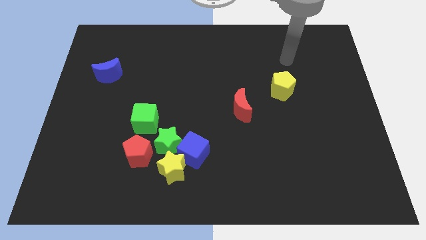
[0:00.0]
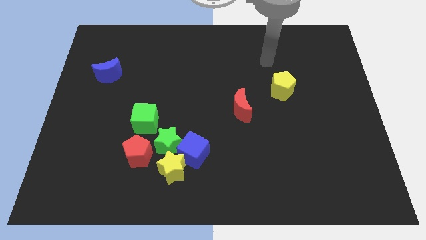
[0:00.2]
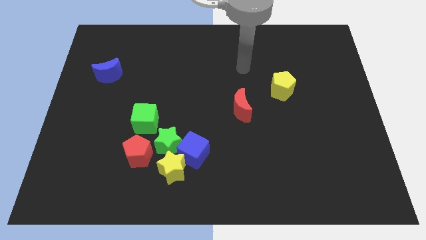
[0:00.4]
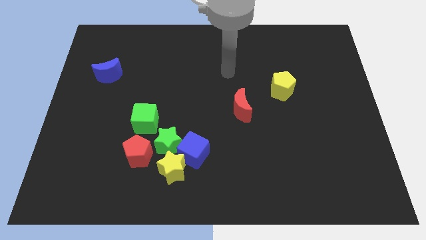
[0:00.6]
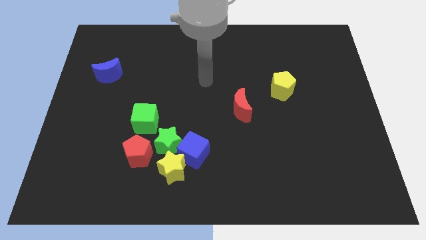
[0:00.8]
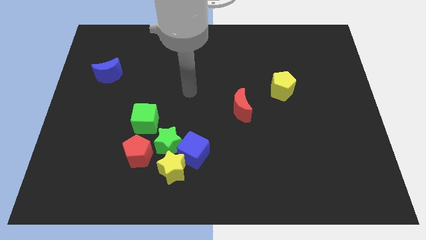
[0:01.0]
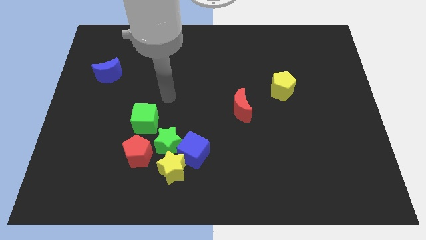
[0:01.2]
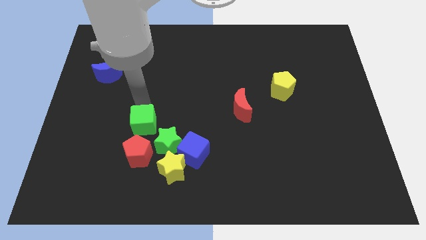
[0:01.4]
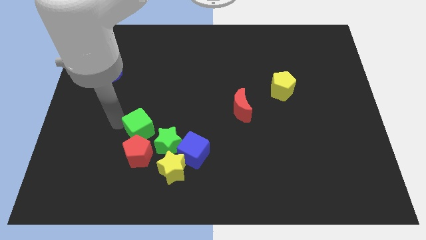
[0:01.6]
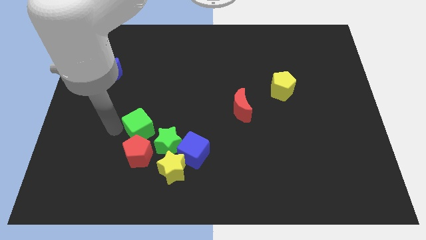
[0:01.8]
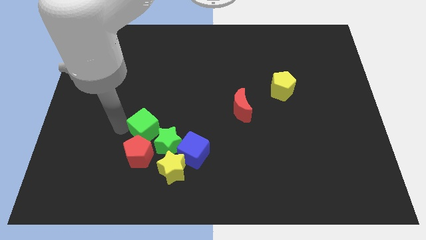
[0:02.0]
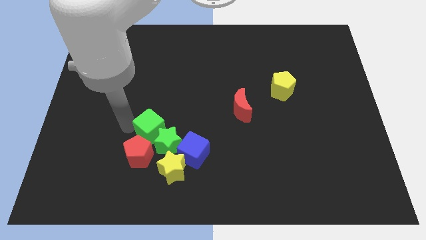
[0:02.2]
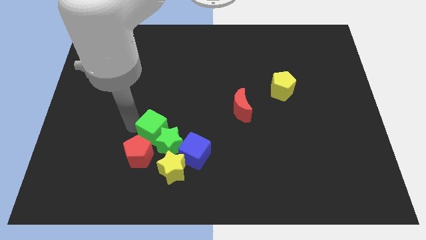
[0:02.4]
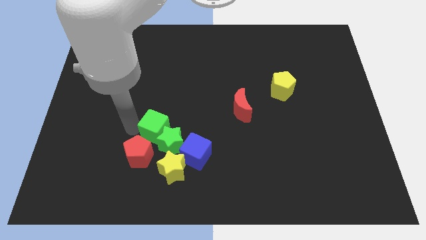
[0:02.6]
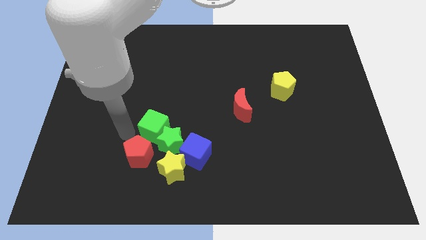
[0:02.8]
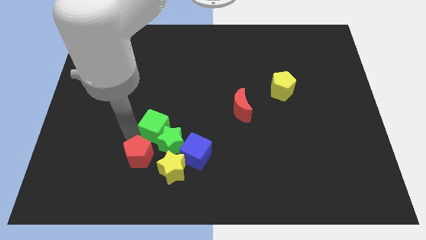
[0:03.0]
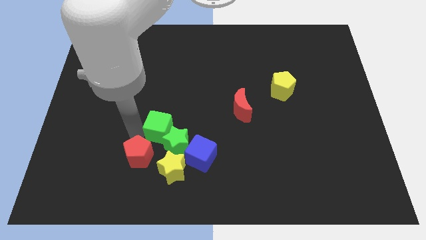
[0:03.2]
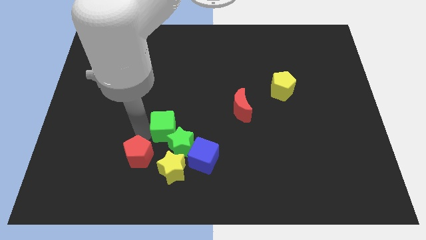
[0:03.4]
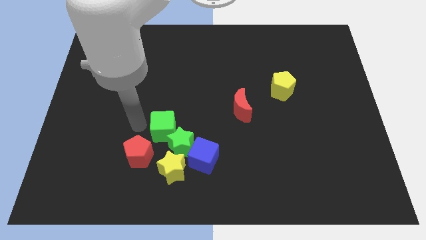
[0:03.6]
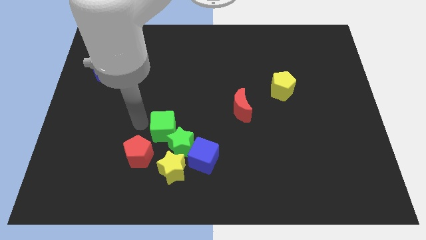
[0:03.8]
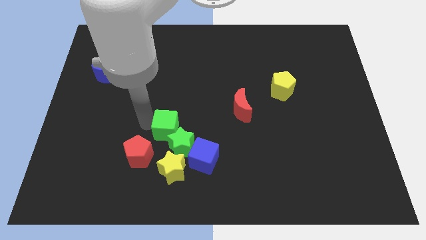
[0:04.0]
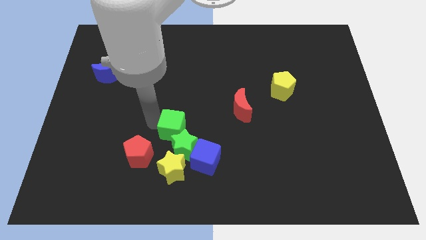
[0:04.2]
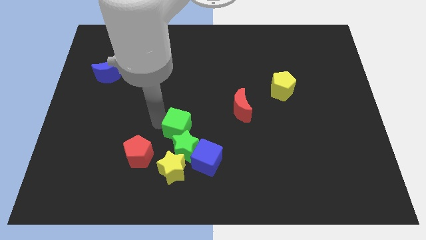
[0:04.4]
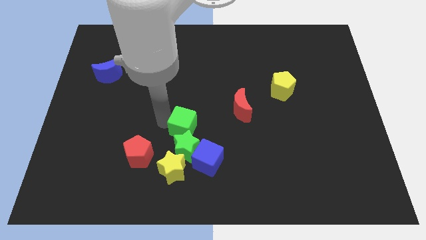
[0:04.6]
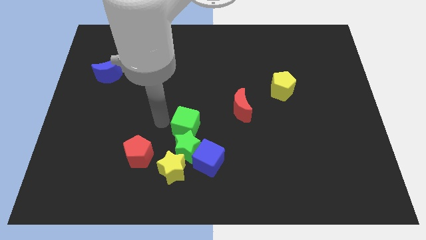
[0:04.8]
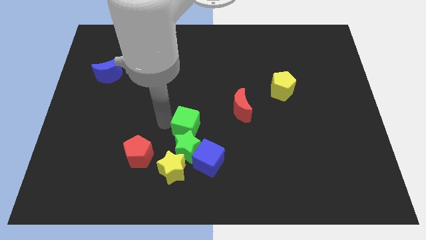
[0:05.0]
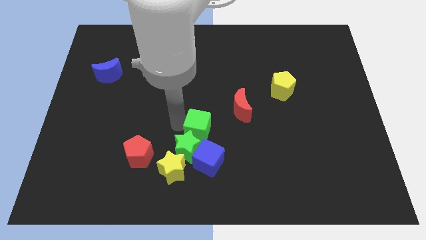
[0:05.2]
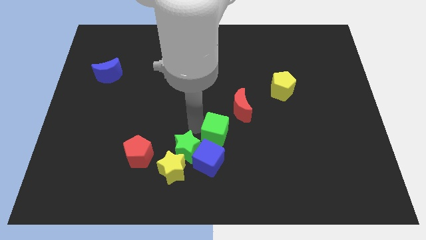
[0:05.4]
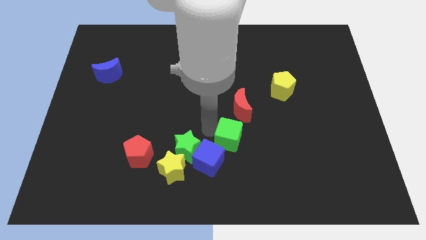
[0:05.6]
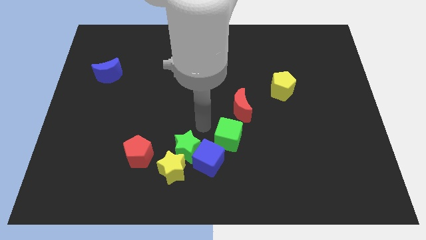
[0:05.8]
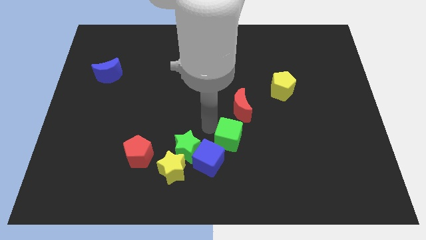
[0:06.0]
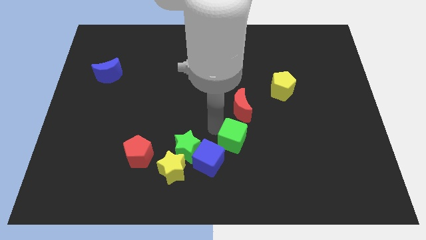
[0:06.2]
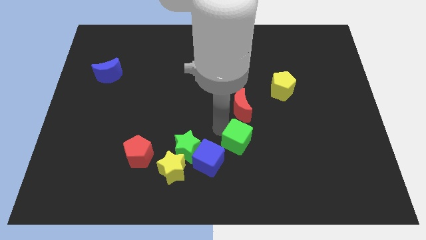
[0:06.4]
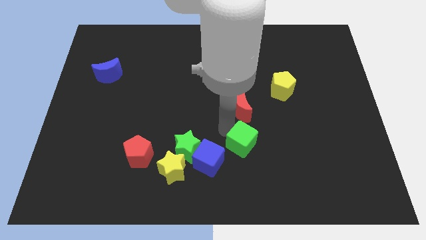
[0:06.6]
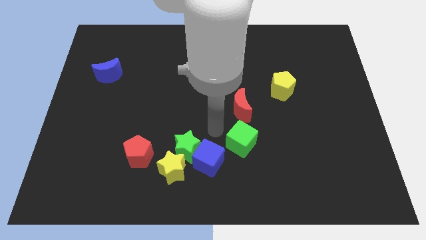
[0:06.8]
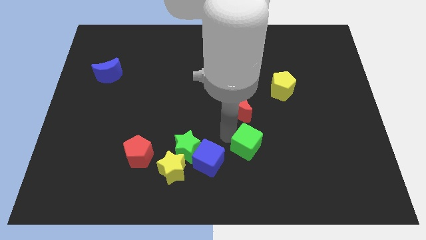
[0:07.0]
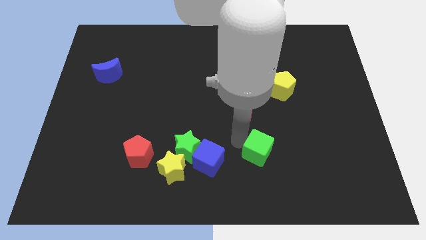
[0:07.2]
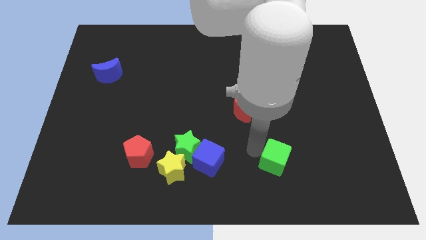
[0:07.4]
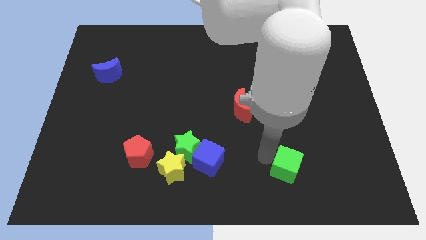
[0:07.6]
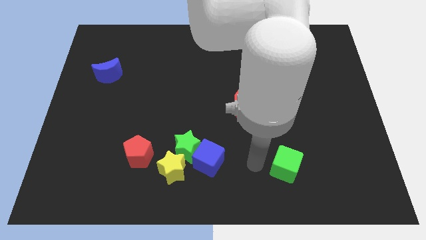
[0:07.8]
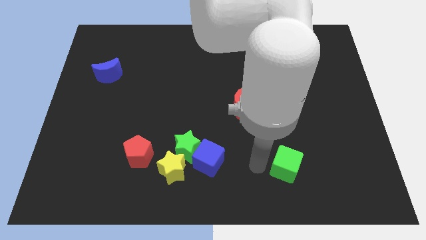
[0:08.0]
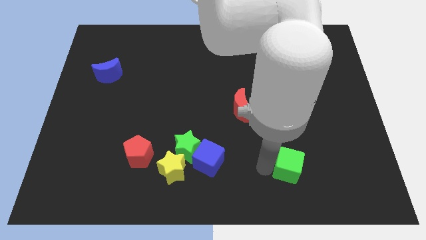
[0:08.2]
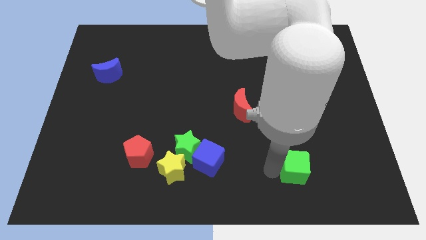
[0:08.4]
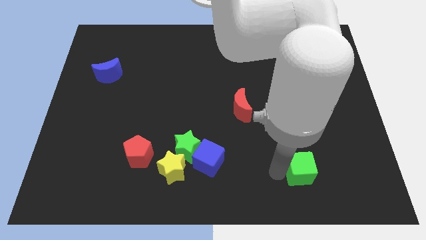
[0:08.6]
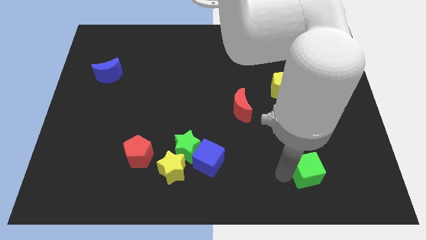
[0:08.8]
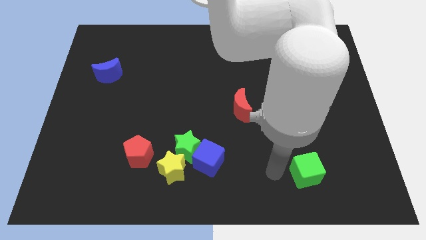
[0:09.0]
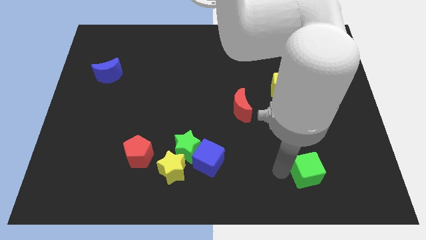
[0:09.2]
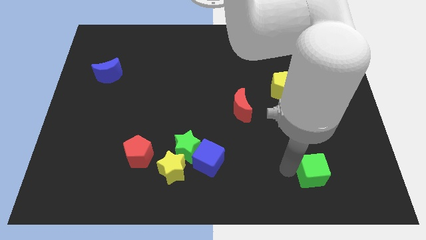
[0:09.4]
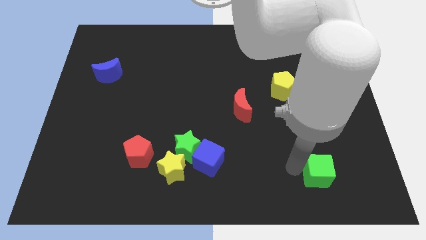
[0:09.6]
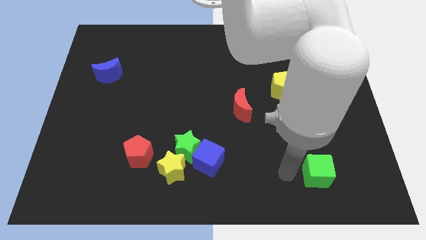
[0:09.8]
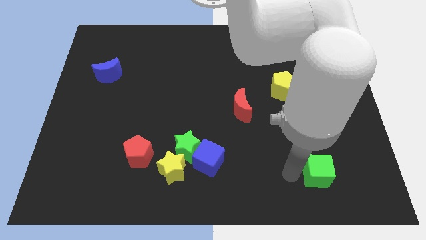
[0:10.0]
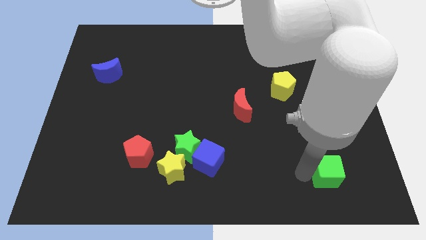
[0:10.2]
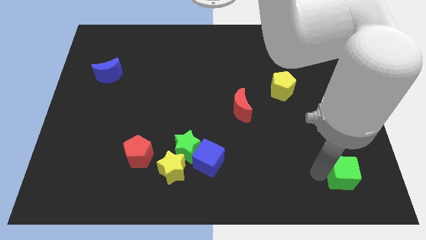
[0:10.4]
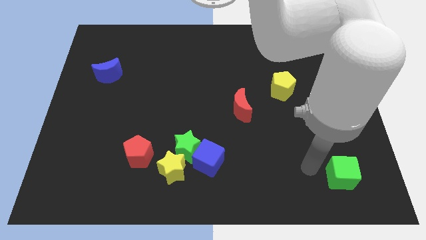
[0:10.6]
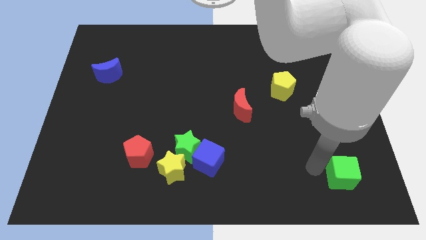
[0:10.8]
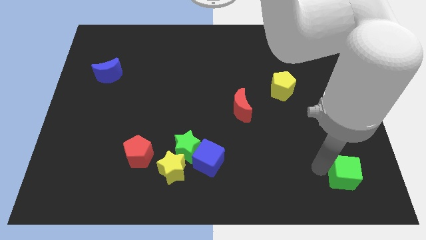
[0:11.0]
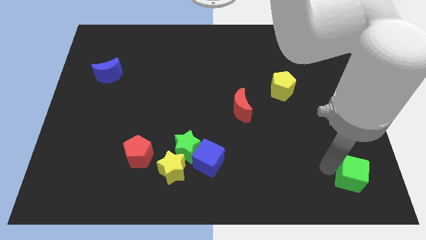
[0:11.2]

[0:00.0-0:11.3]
move the green cube to the bottom right

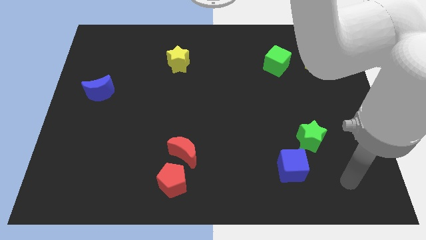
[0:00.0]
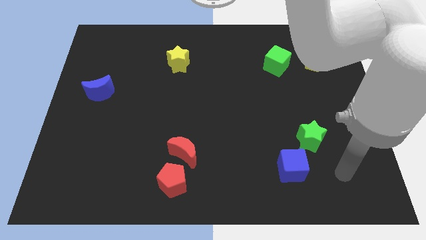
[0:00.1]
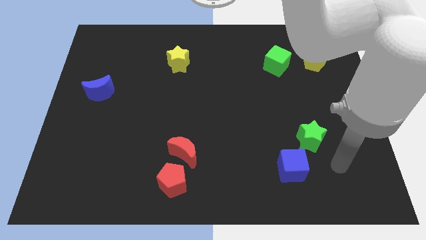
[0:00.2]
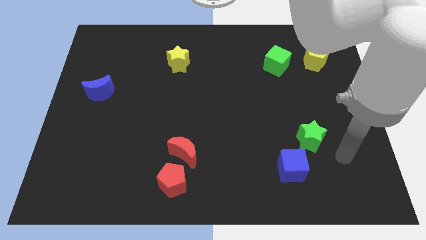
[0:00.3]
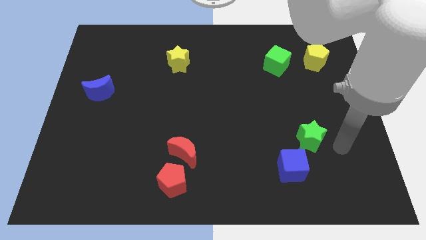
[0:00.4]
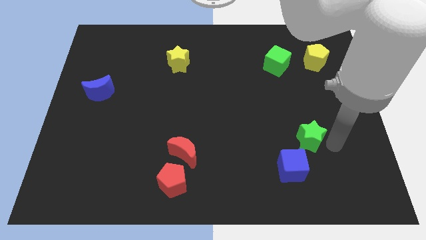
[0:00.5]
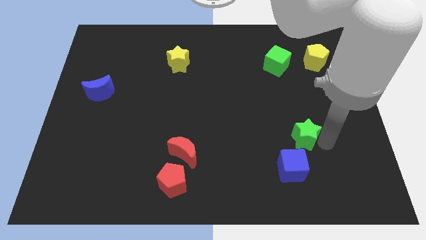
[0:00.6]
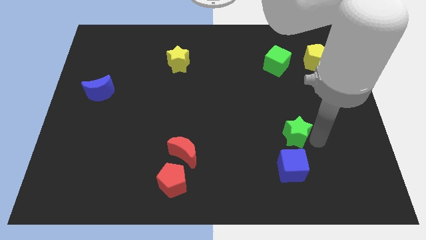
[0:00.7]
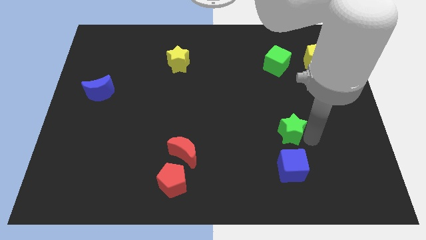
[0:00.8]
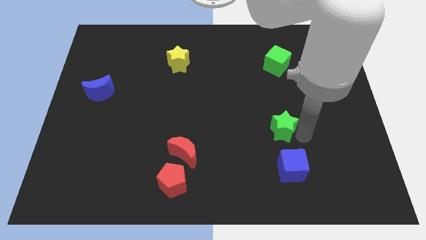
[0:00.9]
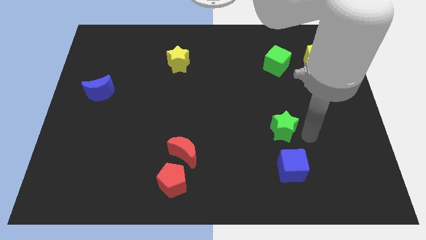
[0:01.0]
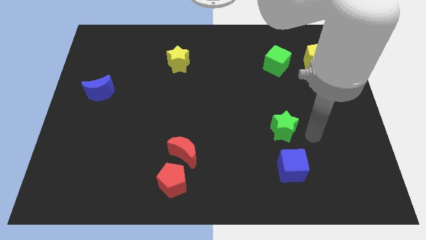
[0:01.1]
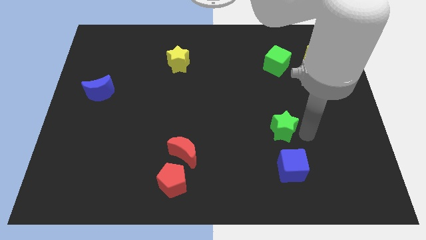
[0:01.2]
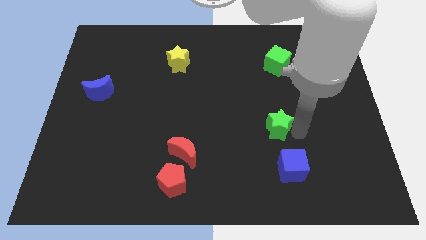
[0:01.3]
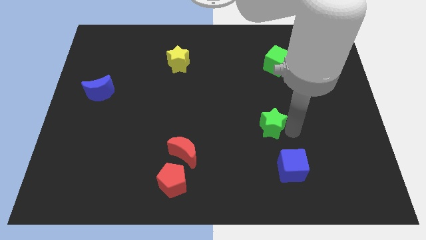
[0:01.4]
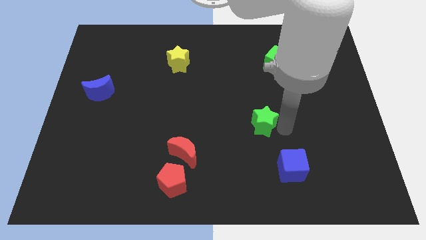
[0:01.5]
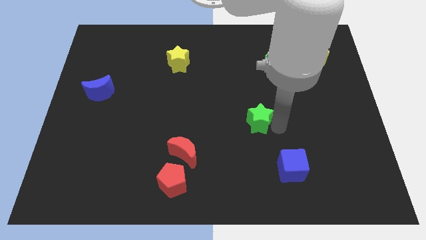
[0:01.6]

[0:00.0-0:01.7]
put the green star to the middle of the board

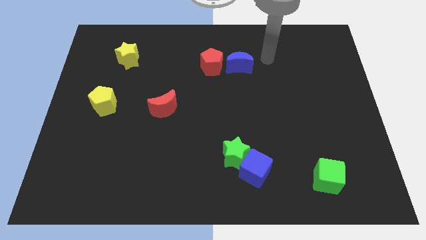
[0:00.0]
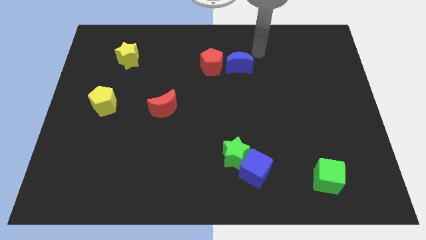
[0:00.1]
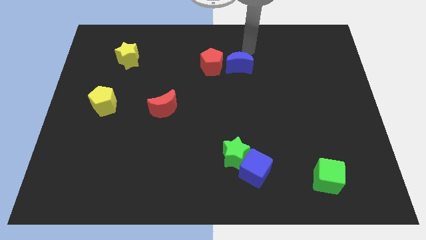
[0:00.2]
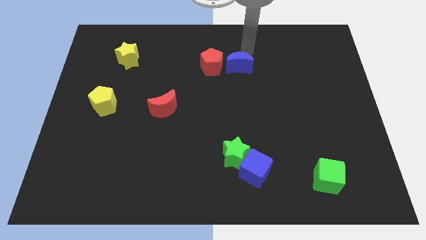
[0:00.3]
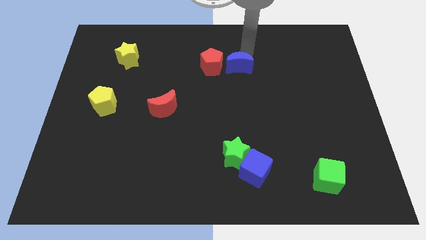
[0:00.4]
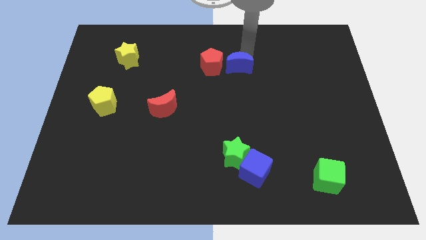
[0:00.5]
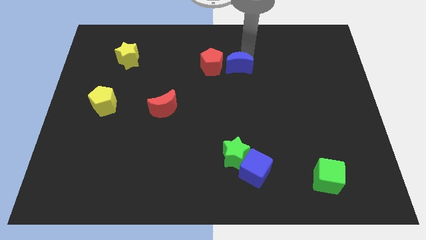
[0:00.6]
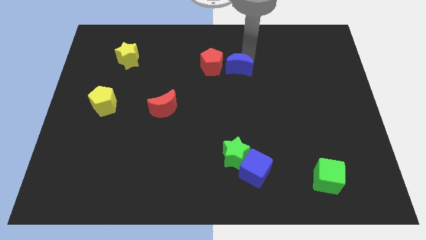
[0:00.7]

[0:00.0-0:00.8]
move the blue moon to the center of the board
